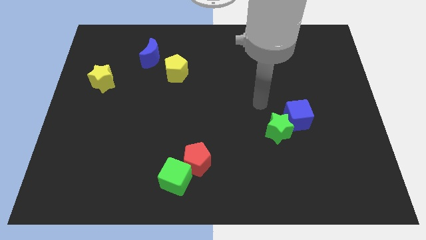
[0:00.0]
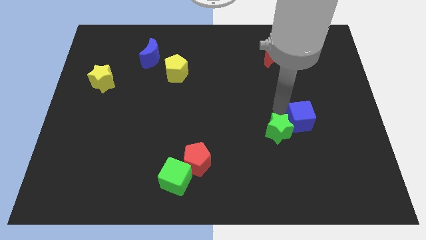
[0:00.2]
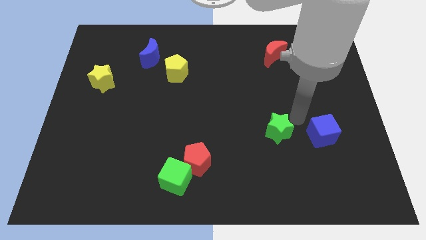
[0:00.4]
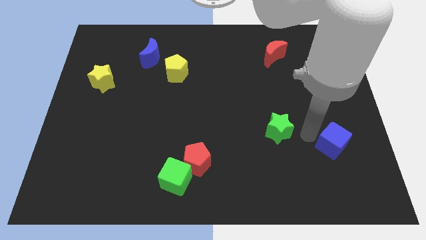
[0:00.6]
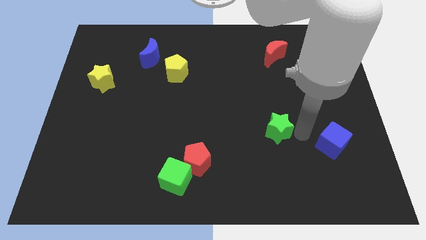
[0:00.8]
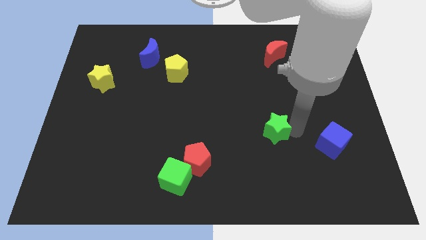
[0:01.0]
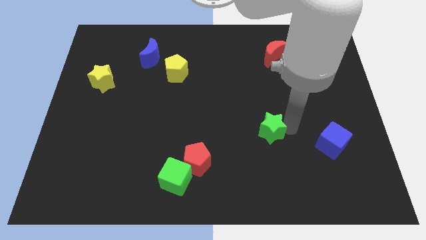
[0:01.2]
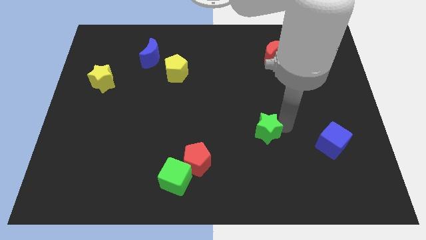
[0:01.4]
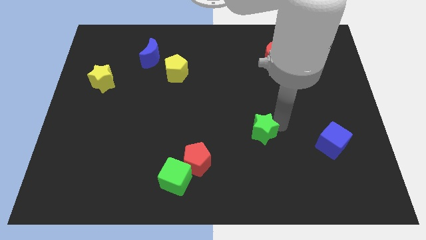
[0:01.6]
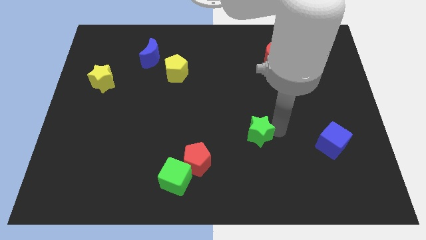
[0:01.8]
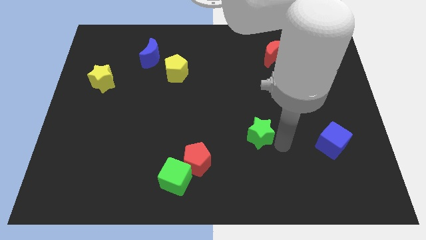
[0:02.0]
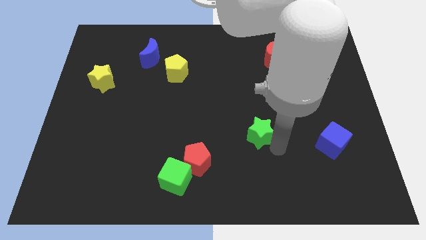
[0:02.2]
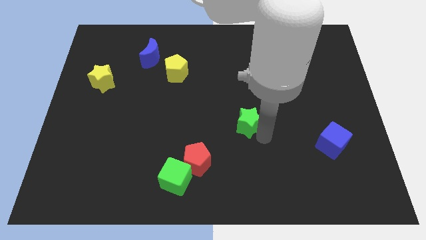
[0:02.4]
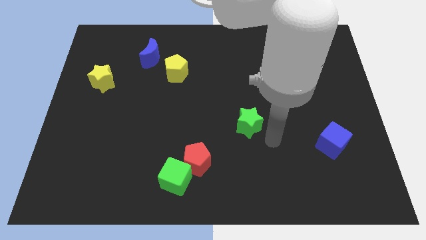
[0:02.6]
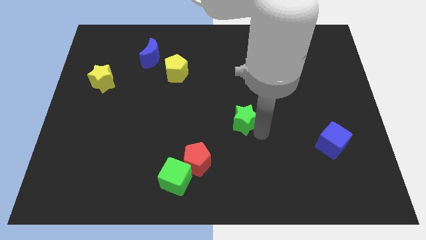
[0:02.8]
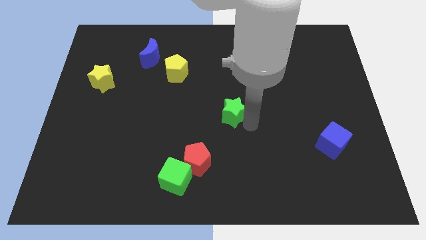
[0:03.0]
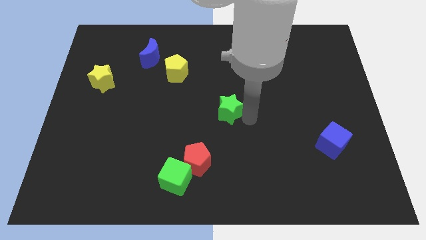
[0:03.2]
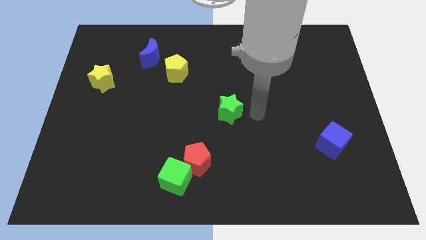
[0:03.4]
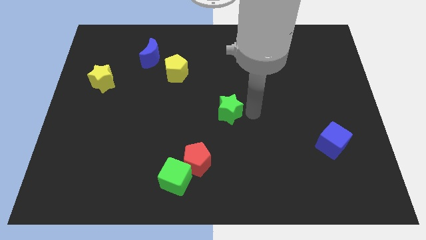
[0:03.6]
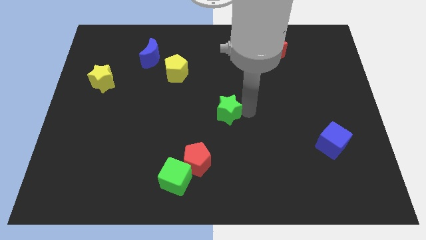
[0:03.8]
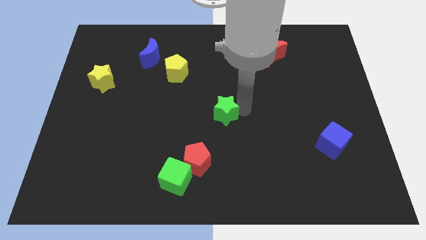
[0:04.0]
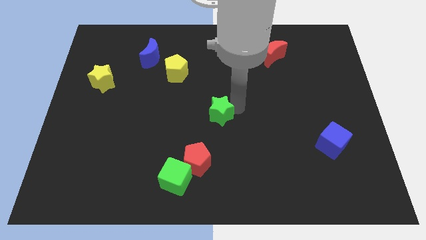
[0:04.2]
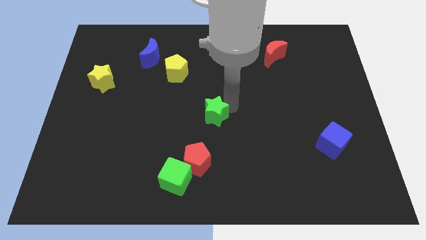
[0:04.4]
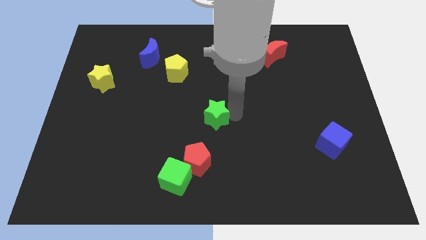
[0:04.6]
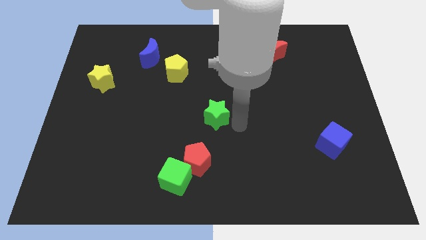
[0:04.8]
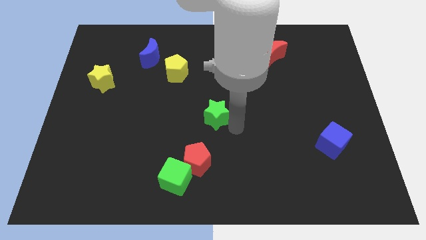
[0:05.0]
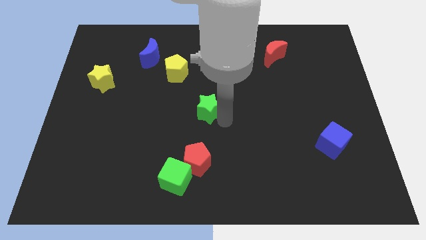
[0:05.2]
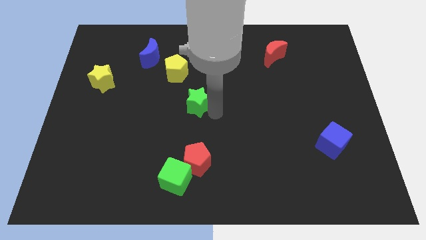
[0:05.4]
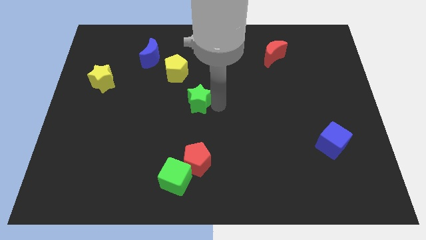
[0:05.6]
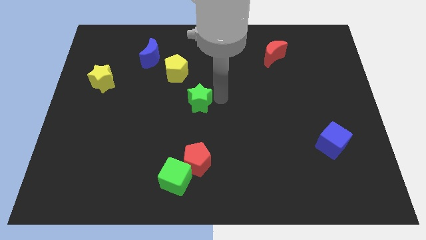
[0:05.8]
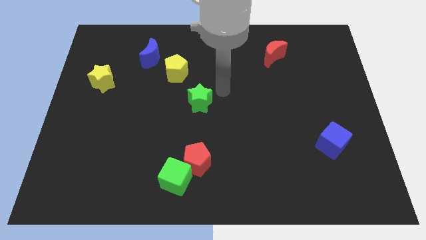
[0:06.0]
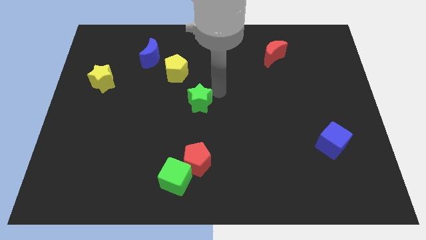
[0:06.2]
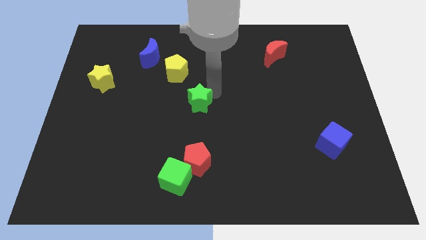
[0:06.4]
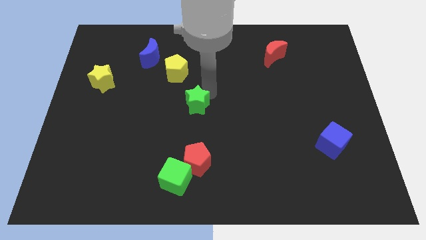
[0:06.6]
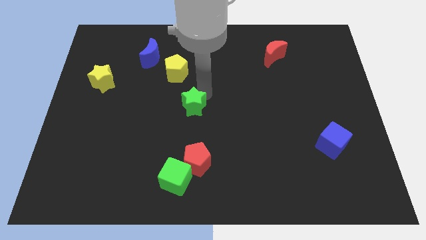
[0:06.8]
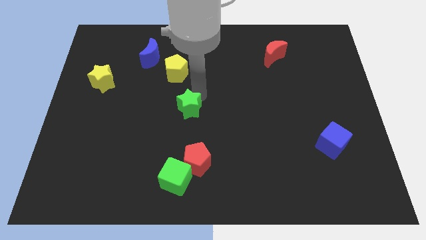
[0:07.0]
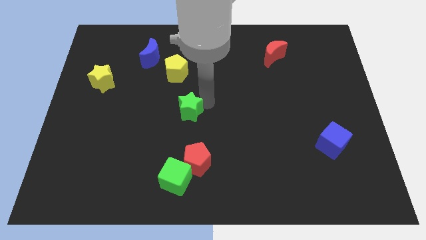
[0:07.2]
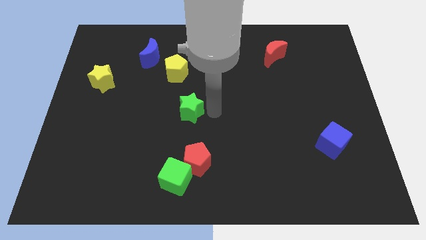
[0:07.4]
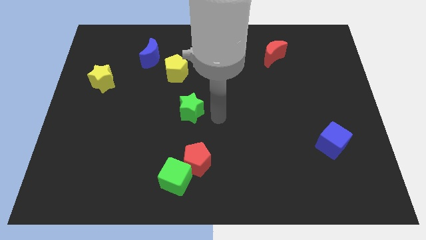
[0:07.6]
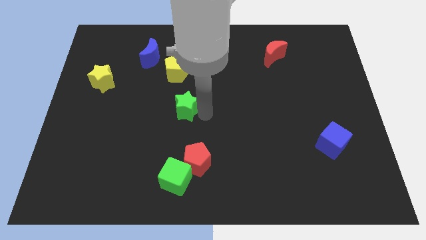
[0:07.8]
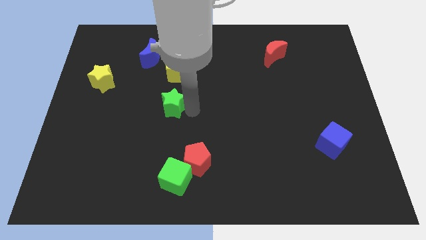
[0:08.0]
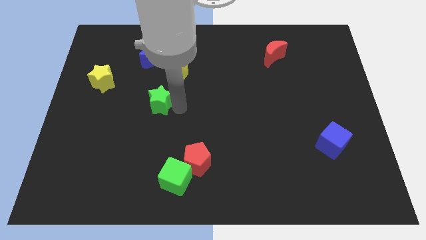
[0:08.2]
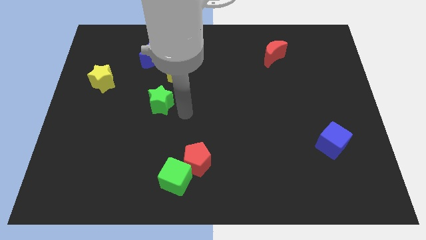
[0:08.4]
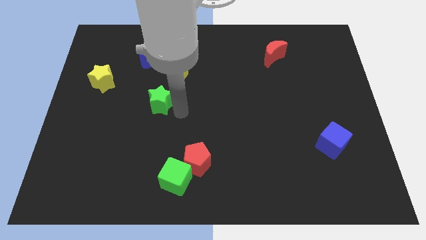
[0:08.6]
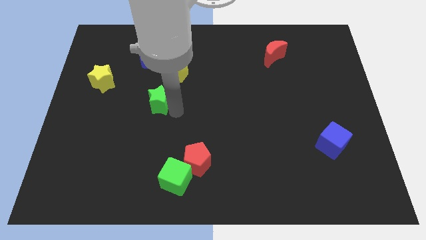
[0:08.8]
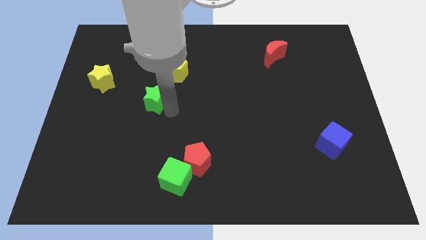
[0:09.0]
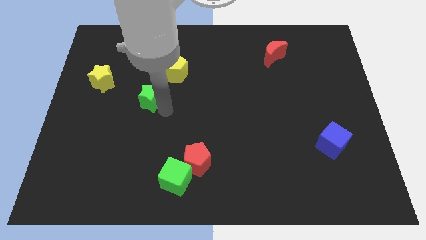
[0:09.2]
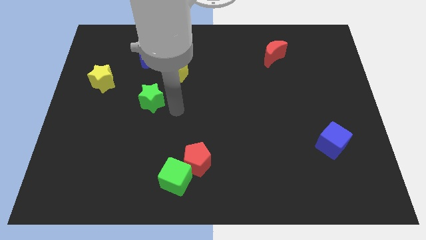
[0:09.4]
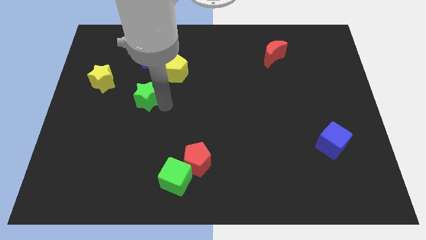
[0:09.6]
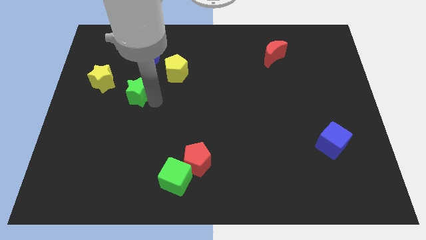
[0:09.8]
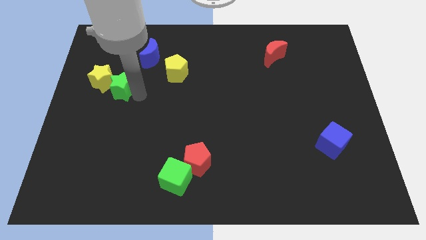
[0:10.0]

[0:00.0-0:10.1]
put the green star towards the yellow star

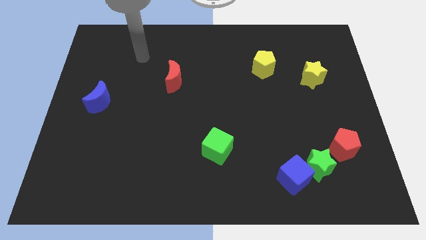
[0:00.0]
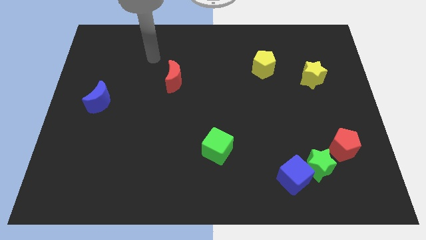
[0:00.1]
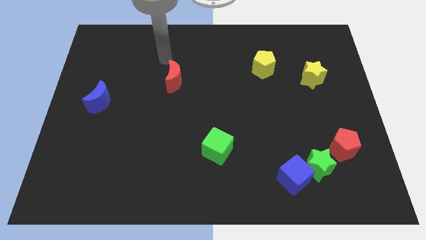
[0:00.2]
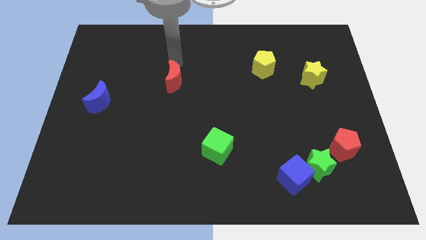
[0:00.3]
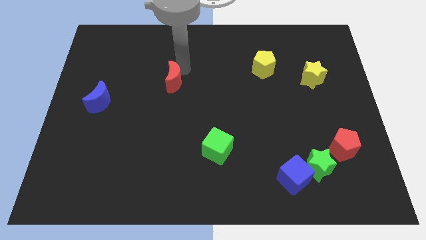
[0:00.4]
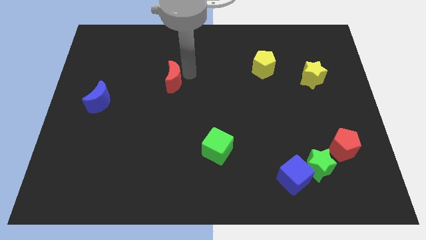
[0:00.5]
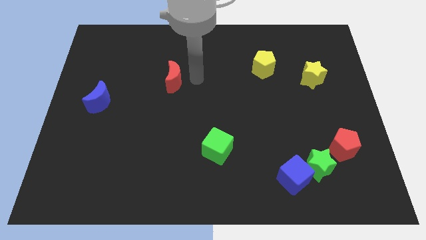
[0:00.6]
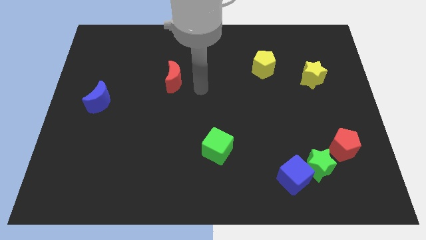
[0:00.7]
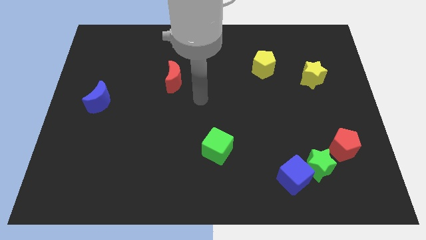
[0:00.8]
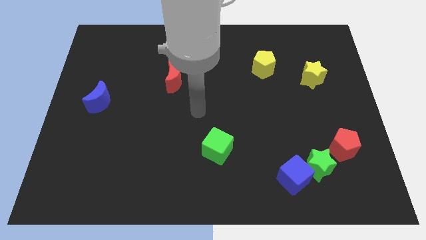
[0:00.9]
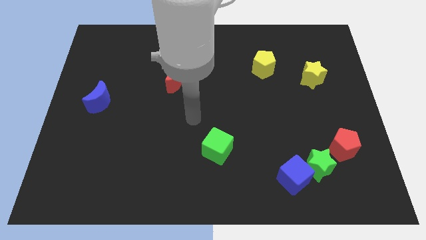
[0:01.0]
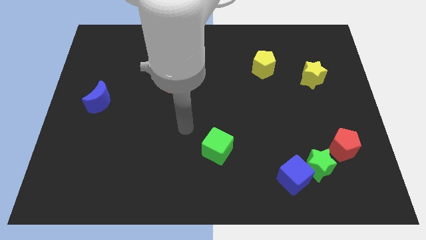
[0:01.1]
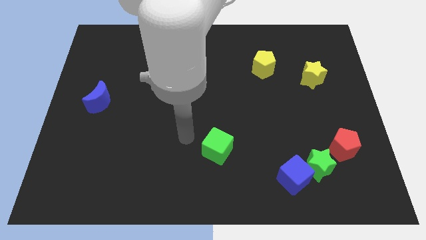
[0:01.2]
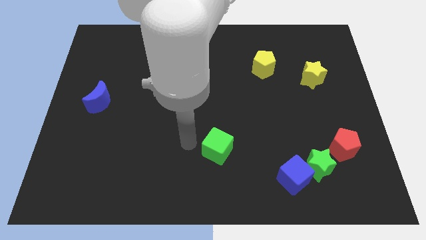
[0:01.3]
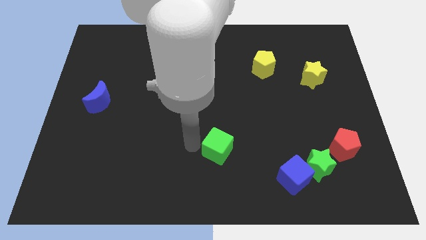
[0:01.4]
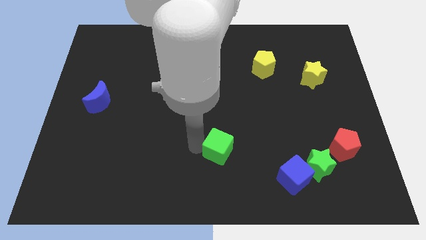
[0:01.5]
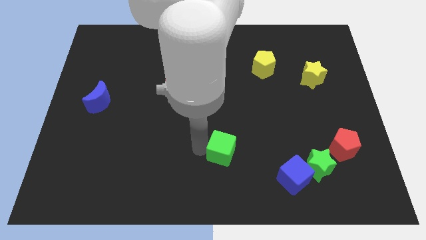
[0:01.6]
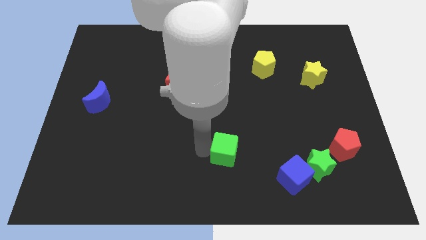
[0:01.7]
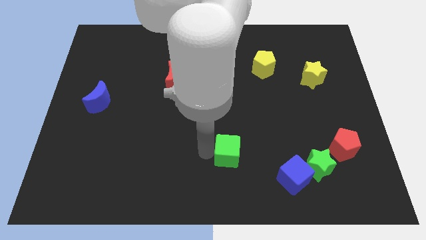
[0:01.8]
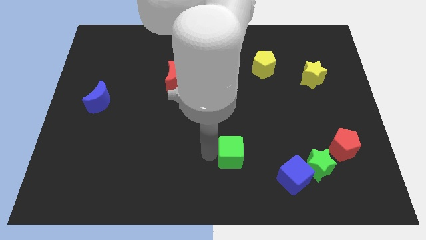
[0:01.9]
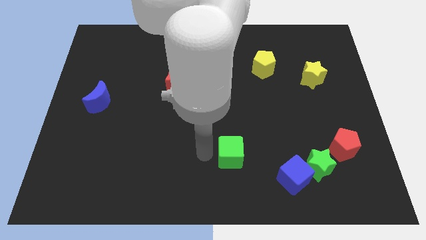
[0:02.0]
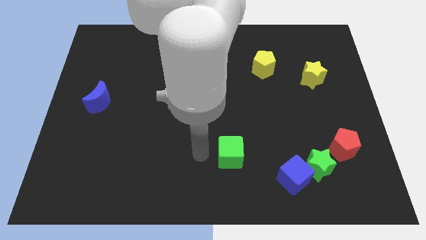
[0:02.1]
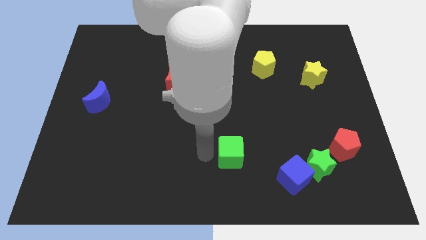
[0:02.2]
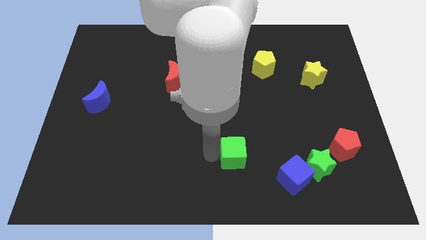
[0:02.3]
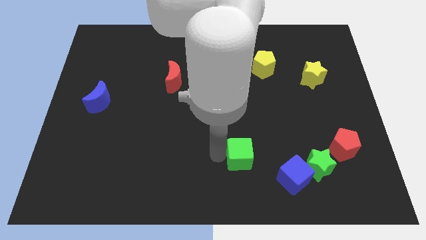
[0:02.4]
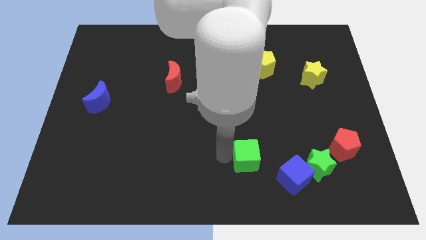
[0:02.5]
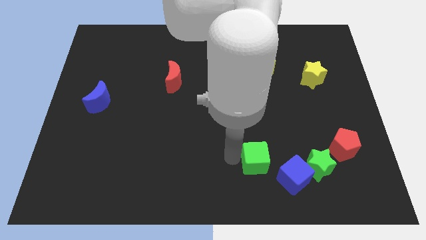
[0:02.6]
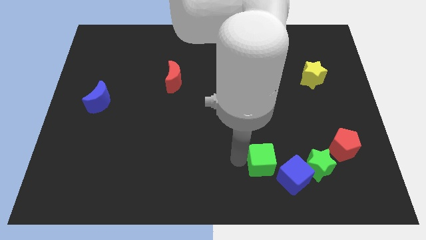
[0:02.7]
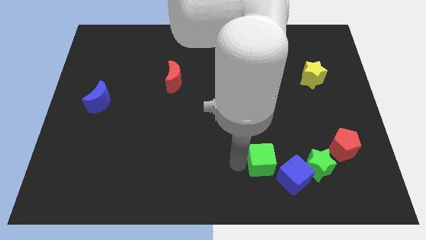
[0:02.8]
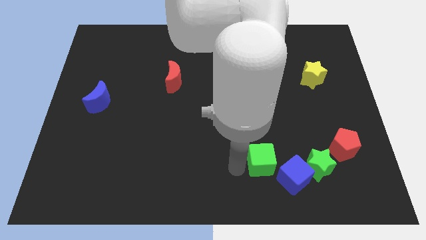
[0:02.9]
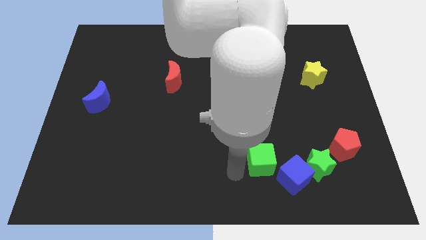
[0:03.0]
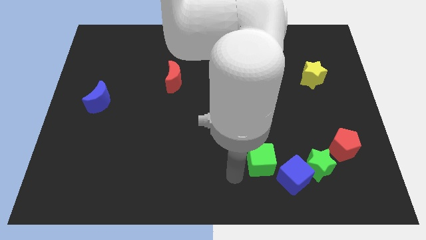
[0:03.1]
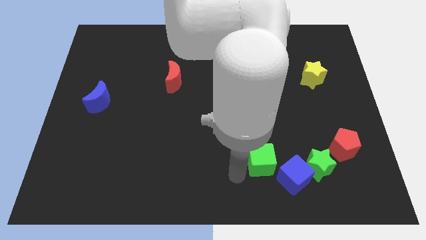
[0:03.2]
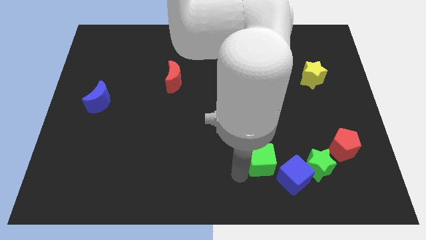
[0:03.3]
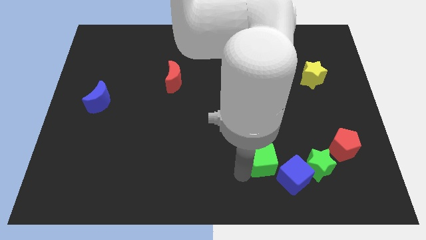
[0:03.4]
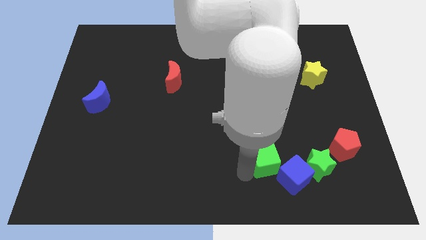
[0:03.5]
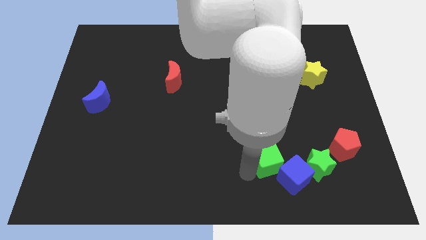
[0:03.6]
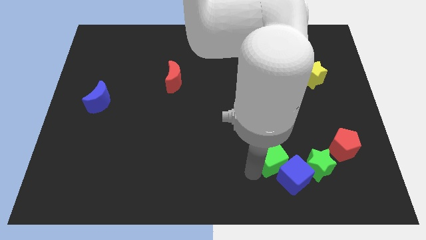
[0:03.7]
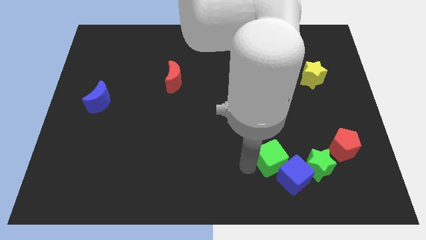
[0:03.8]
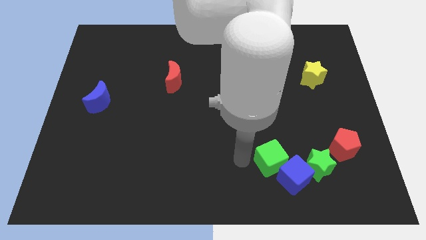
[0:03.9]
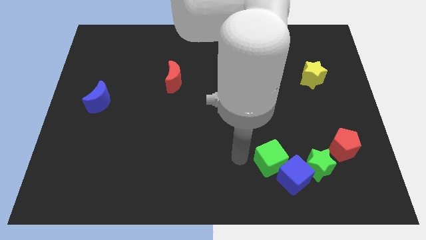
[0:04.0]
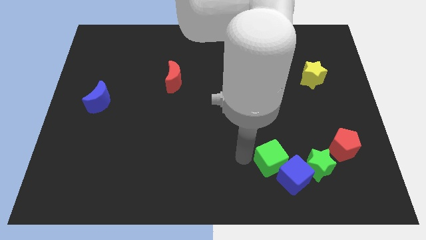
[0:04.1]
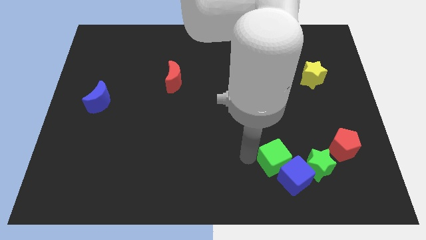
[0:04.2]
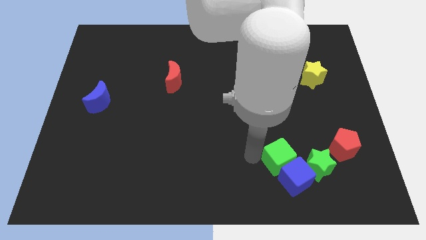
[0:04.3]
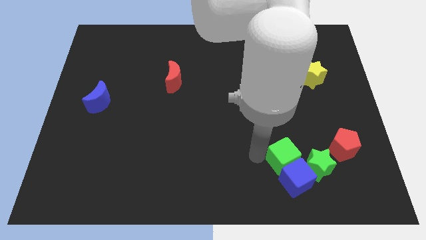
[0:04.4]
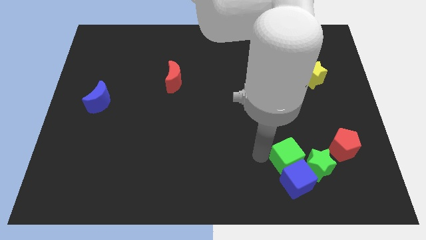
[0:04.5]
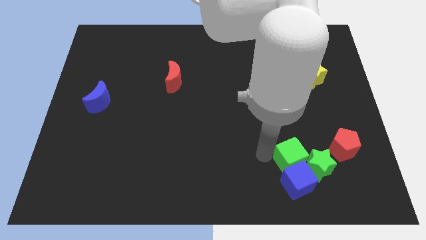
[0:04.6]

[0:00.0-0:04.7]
slide the green cube towards the green star
